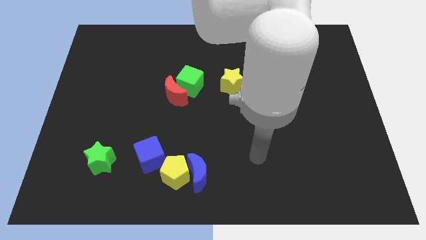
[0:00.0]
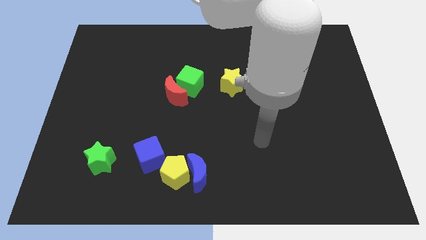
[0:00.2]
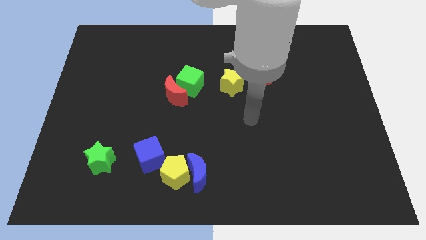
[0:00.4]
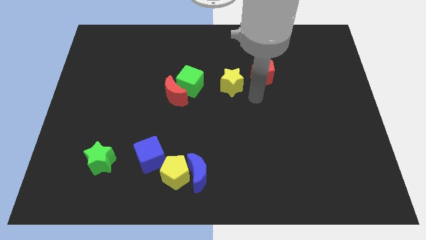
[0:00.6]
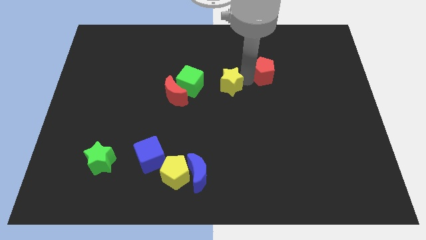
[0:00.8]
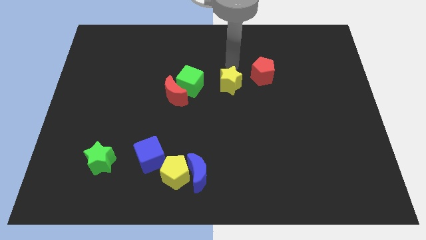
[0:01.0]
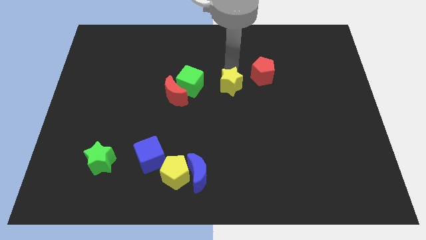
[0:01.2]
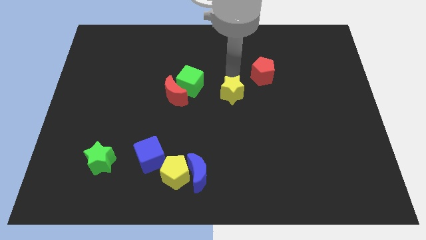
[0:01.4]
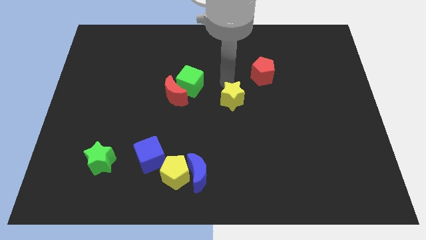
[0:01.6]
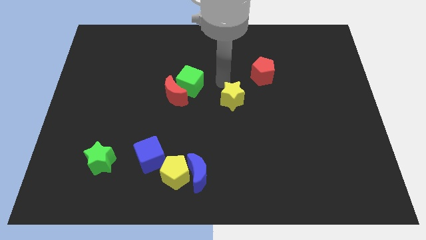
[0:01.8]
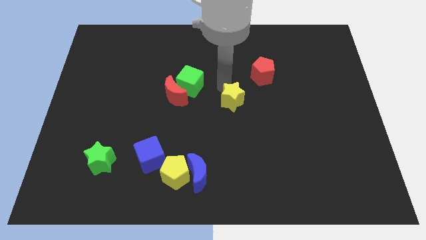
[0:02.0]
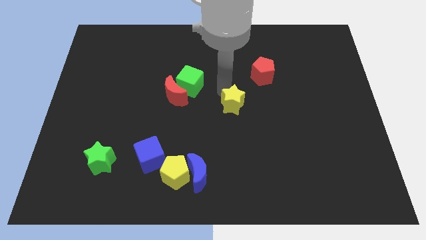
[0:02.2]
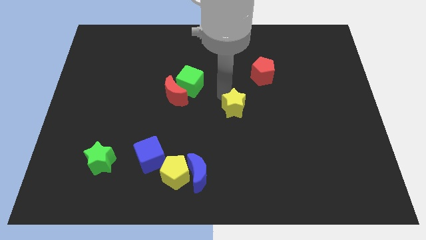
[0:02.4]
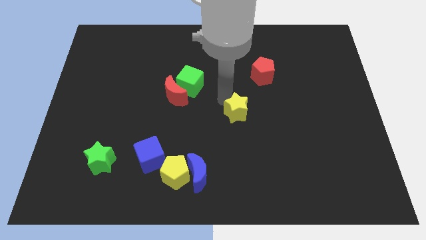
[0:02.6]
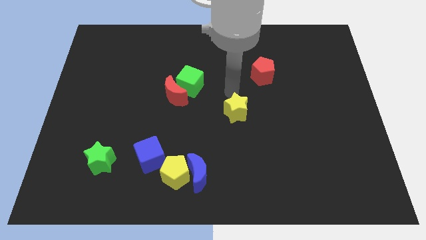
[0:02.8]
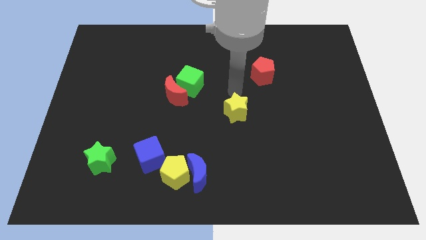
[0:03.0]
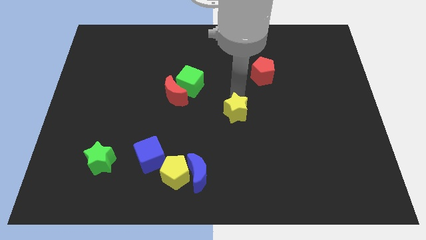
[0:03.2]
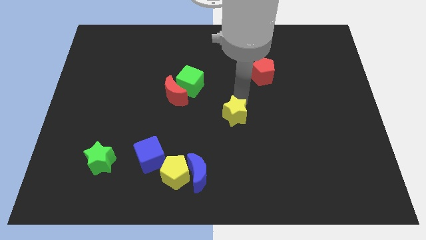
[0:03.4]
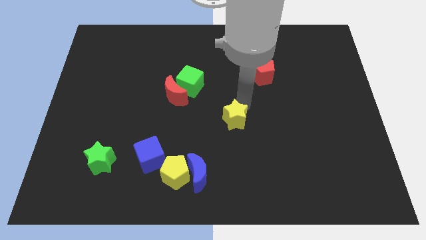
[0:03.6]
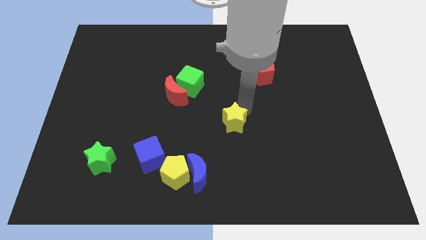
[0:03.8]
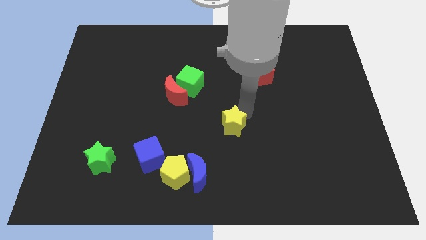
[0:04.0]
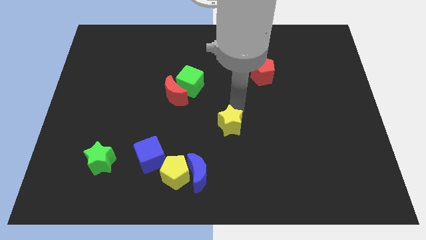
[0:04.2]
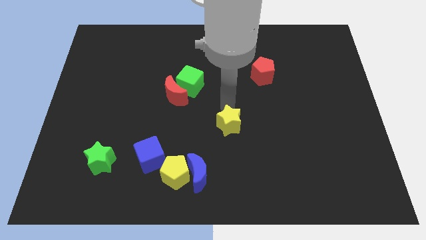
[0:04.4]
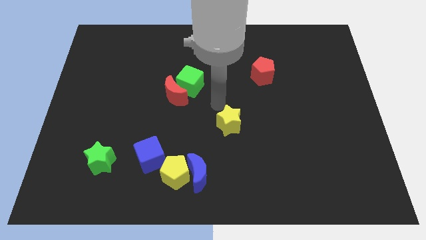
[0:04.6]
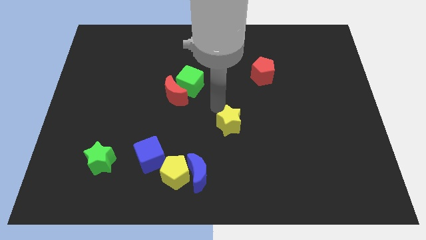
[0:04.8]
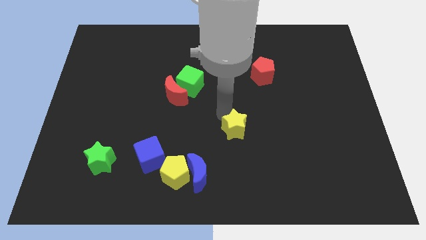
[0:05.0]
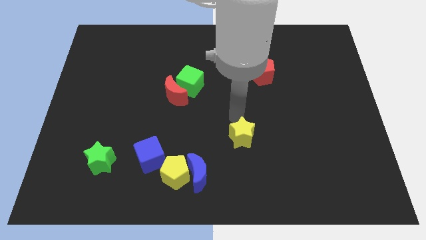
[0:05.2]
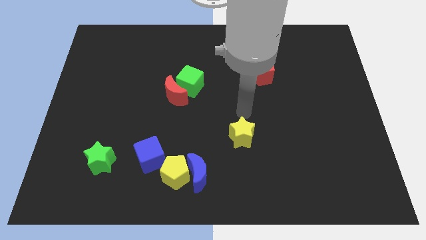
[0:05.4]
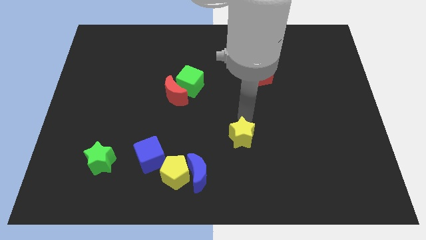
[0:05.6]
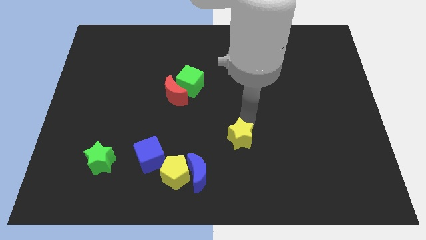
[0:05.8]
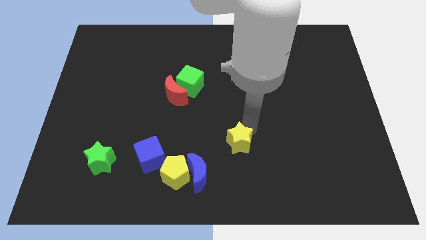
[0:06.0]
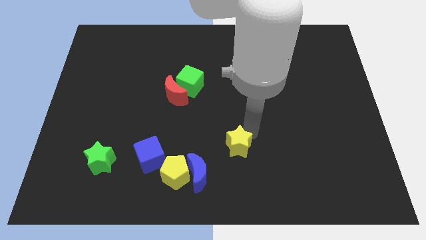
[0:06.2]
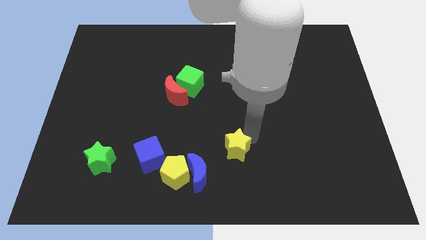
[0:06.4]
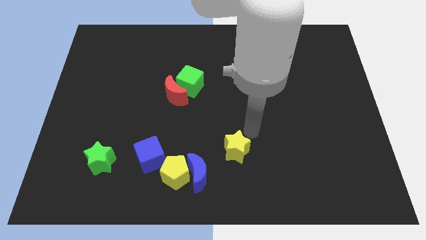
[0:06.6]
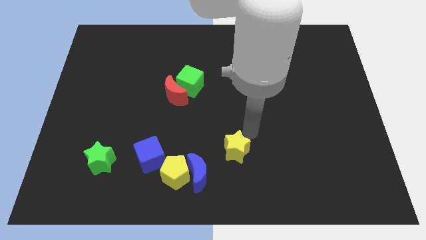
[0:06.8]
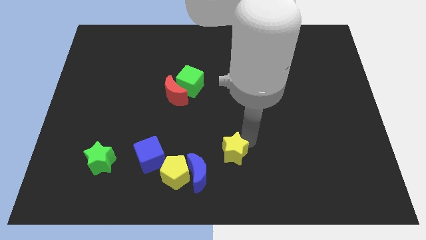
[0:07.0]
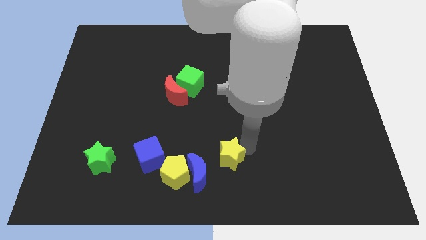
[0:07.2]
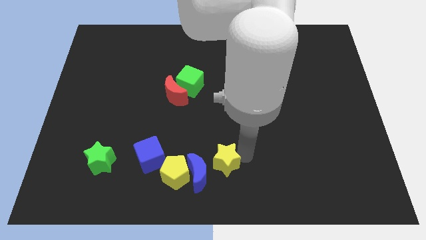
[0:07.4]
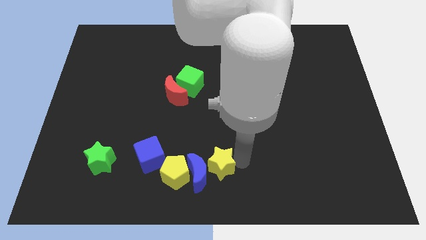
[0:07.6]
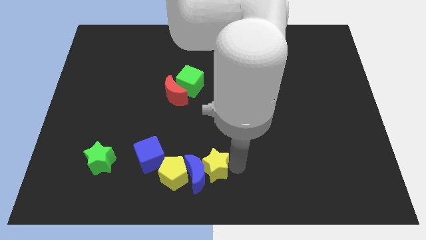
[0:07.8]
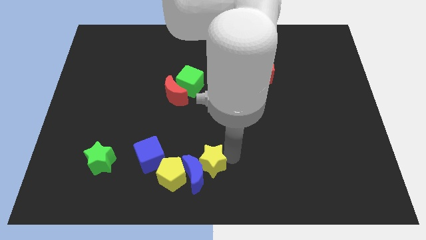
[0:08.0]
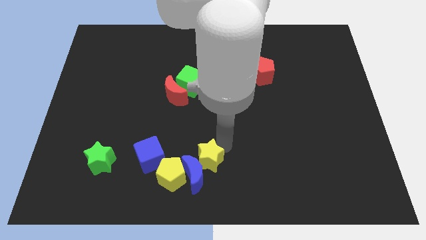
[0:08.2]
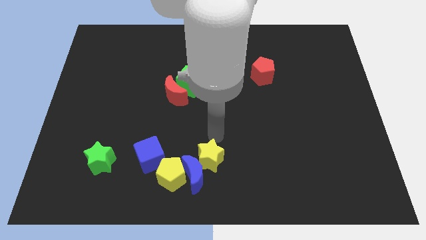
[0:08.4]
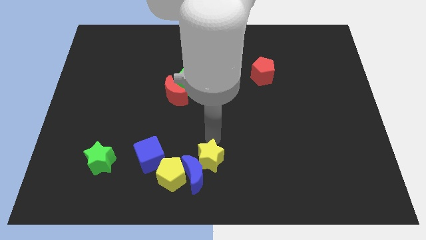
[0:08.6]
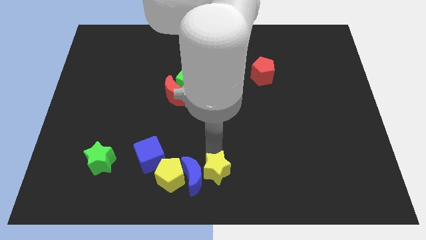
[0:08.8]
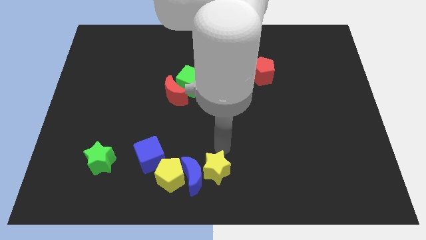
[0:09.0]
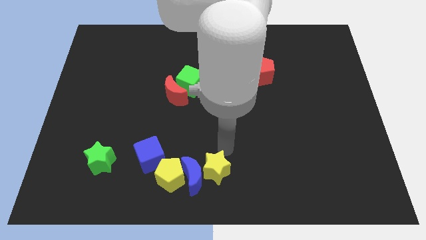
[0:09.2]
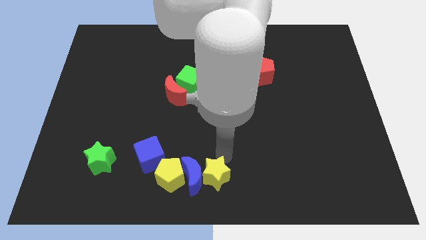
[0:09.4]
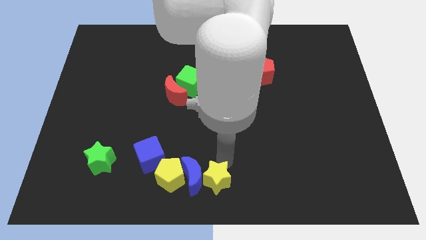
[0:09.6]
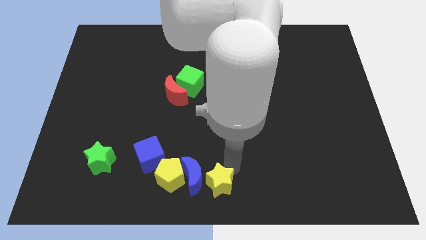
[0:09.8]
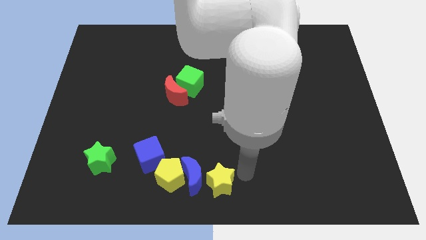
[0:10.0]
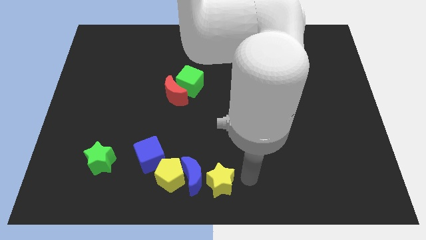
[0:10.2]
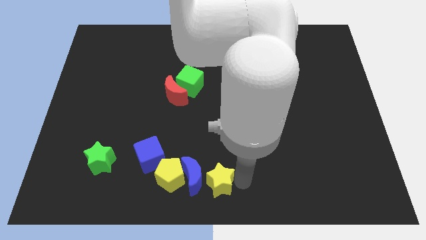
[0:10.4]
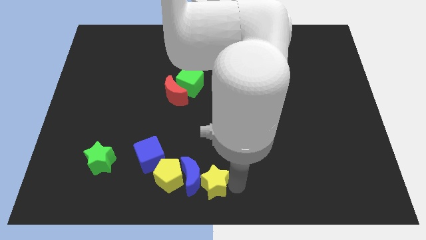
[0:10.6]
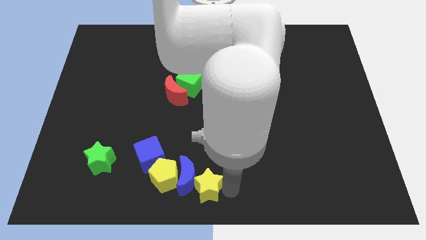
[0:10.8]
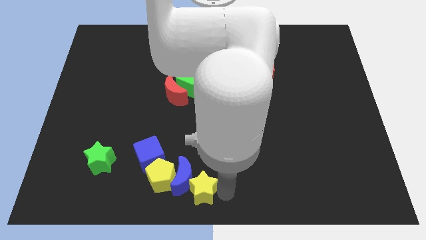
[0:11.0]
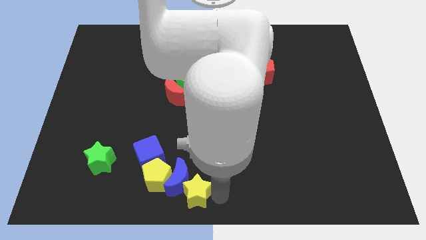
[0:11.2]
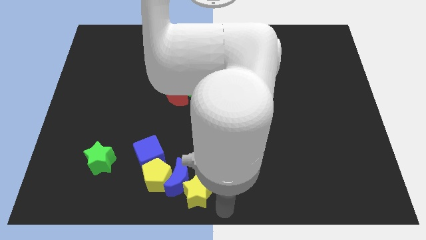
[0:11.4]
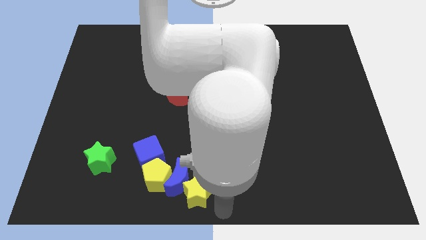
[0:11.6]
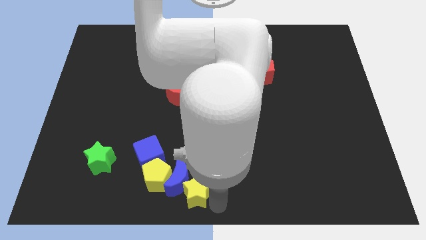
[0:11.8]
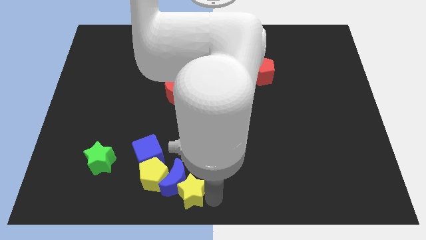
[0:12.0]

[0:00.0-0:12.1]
put the yellow star to the bottom right of the blue cube

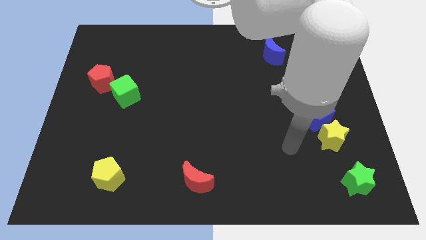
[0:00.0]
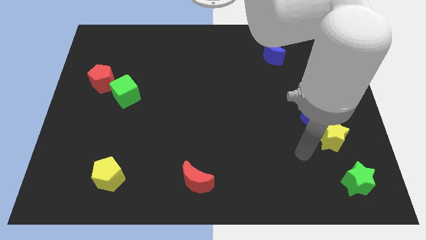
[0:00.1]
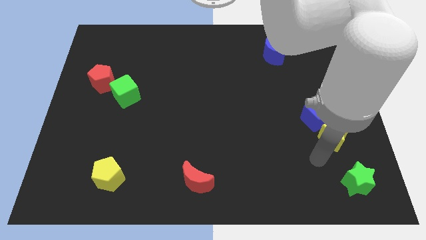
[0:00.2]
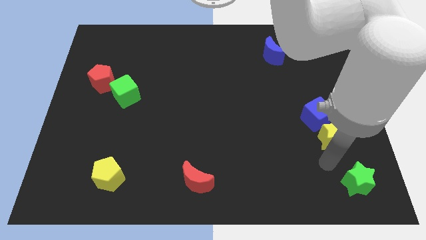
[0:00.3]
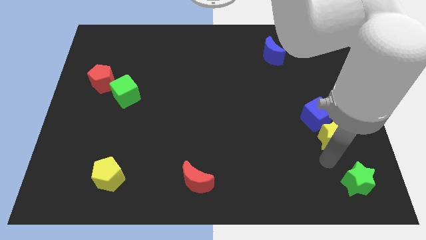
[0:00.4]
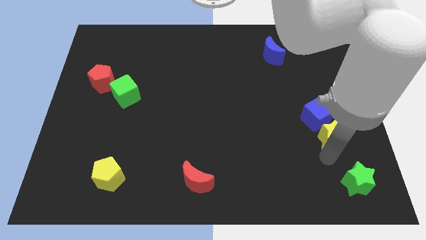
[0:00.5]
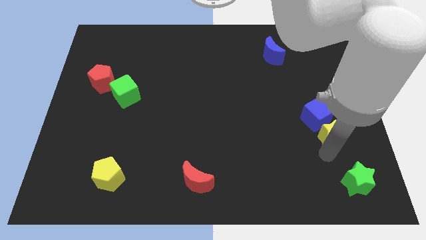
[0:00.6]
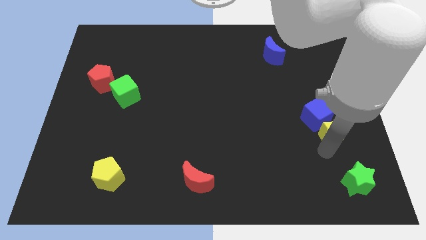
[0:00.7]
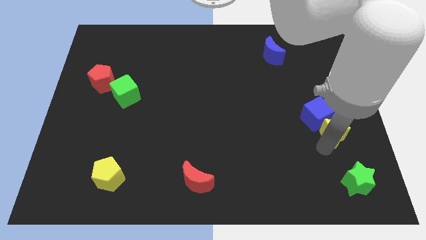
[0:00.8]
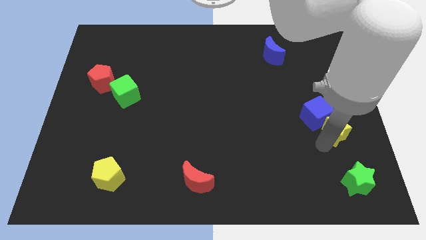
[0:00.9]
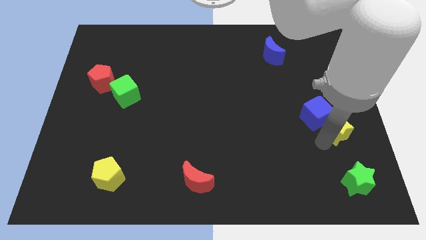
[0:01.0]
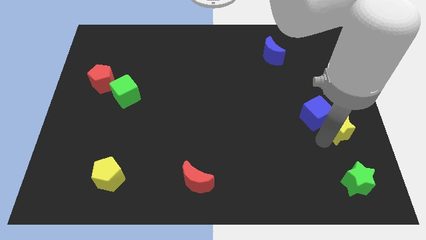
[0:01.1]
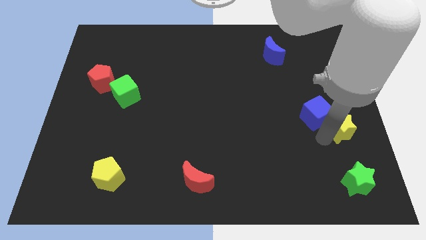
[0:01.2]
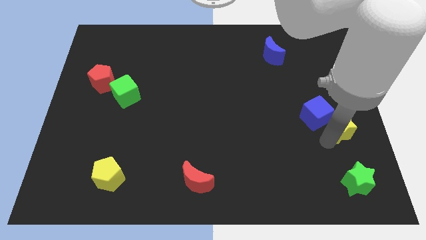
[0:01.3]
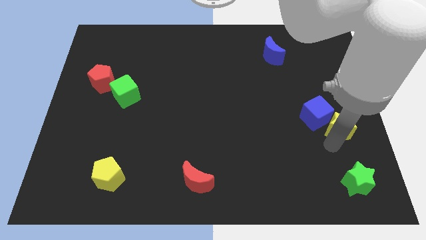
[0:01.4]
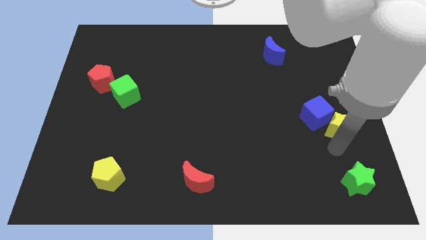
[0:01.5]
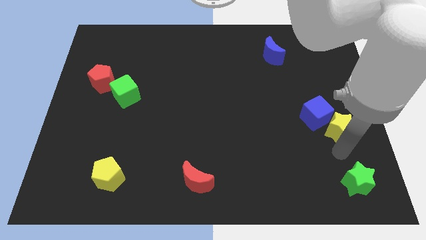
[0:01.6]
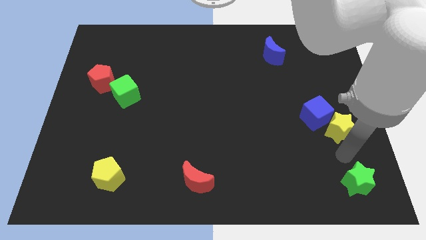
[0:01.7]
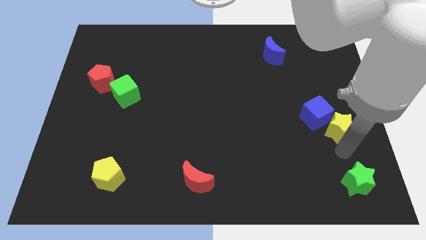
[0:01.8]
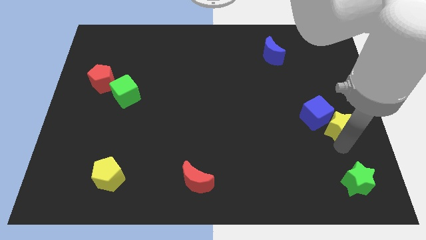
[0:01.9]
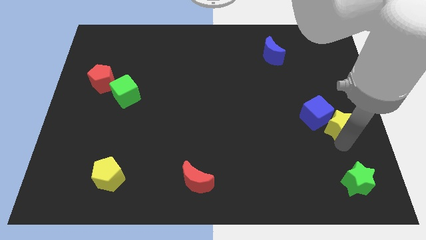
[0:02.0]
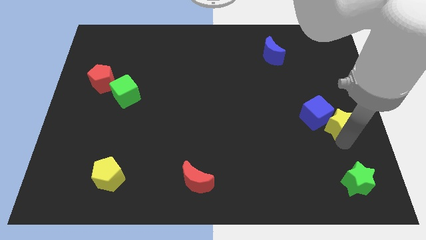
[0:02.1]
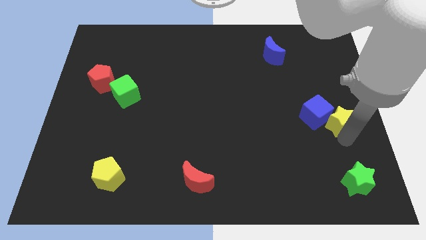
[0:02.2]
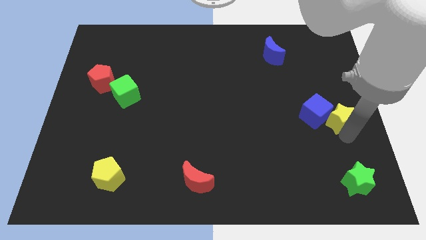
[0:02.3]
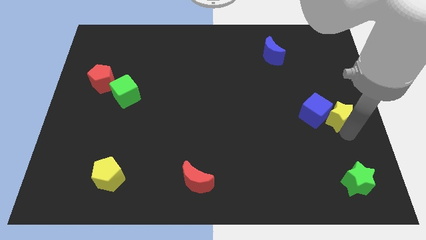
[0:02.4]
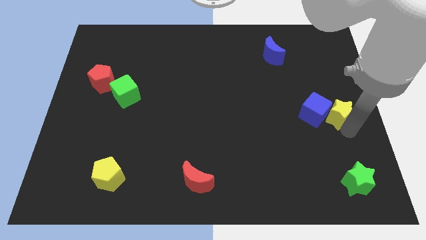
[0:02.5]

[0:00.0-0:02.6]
put the yellow star to the top right of the blue cube
